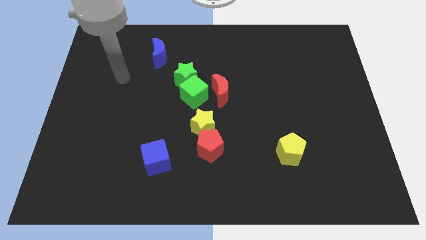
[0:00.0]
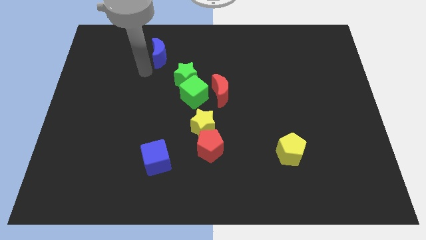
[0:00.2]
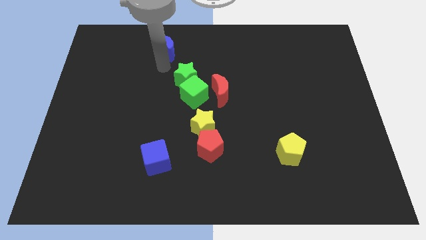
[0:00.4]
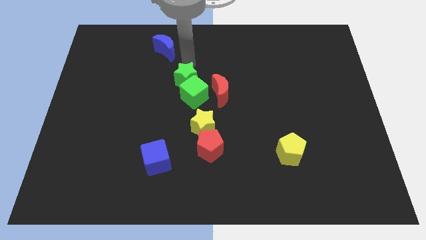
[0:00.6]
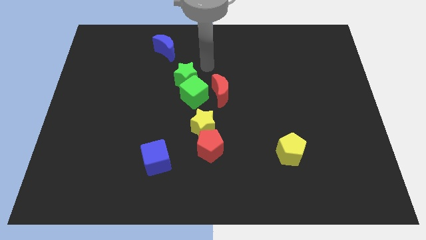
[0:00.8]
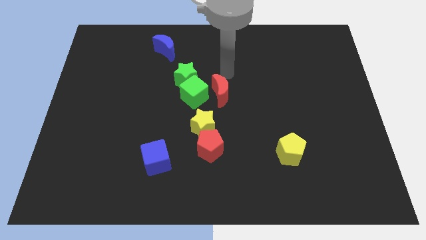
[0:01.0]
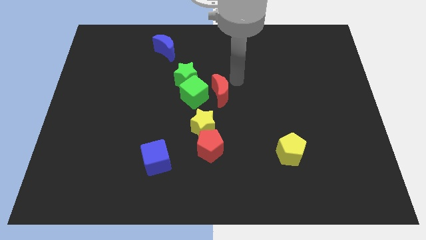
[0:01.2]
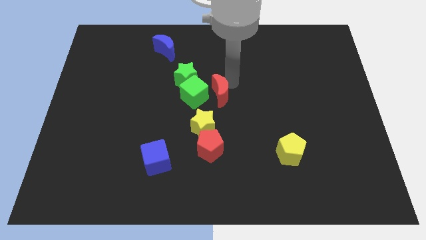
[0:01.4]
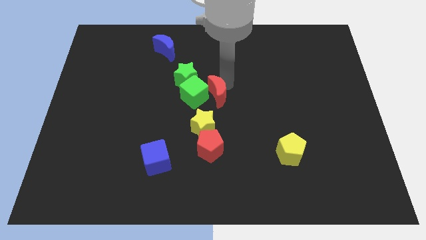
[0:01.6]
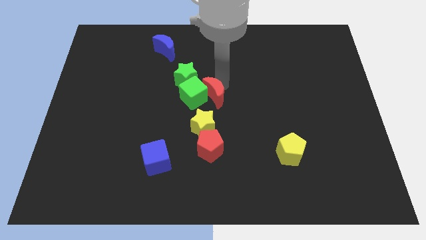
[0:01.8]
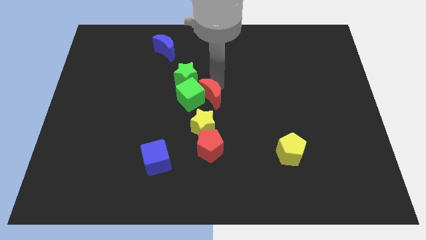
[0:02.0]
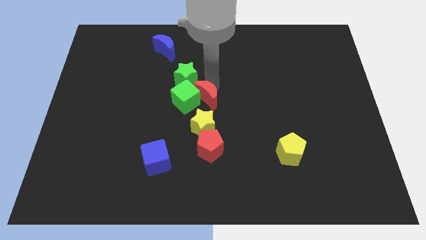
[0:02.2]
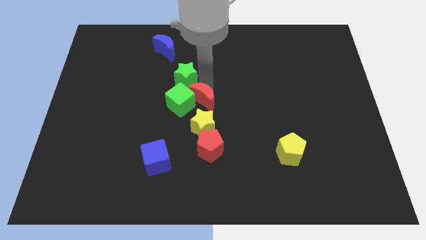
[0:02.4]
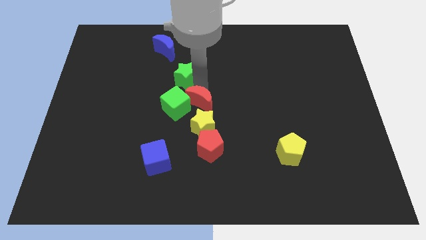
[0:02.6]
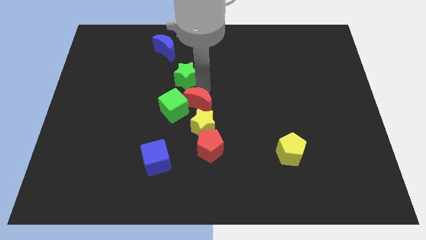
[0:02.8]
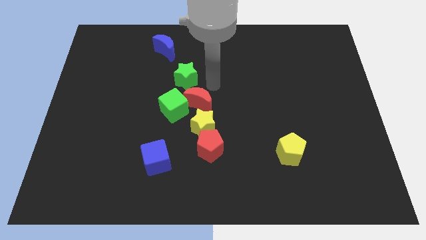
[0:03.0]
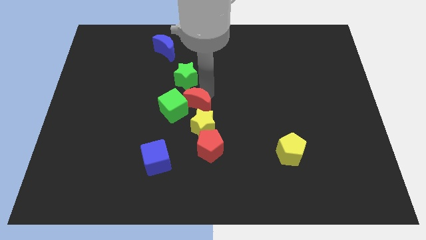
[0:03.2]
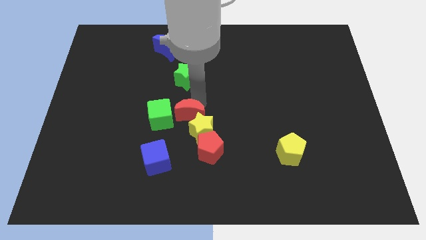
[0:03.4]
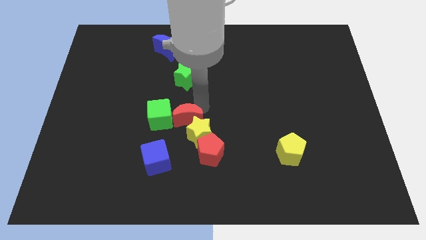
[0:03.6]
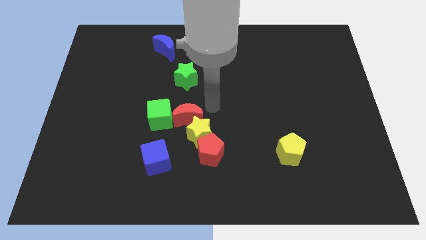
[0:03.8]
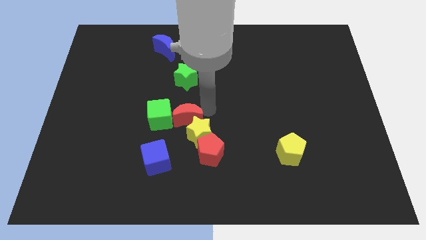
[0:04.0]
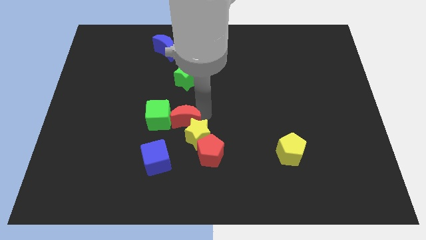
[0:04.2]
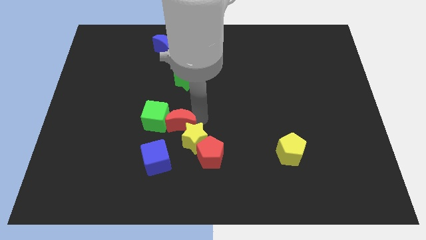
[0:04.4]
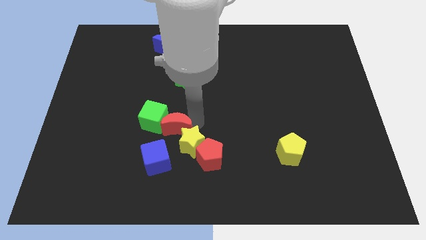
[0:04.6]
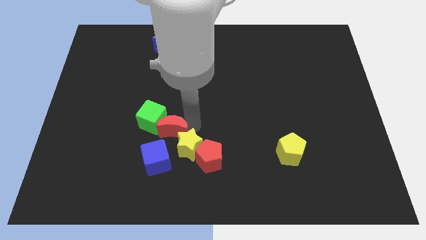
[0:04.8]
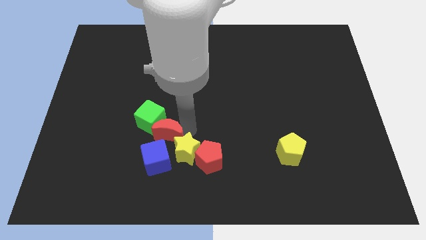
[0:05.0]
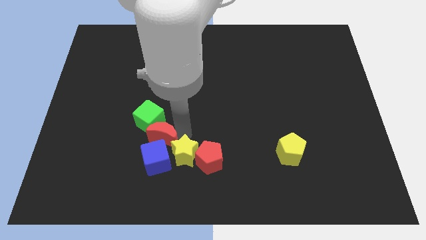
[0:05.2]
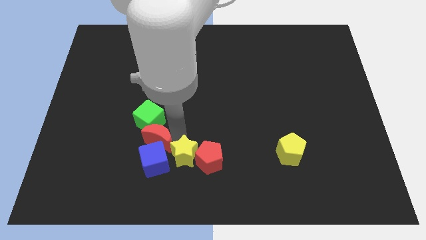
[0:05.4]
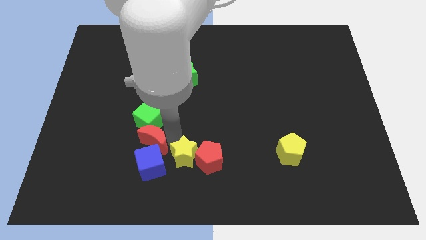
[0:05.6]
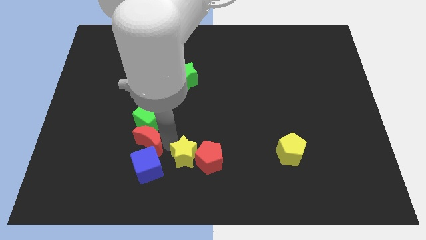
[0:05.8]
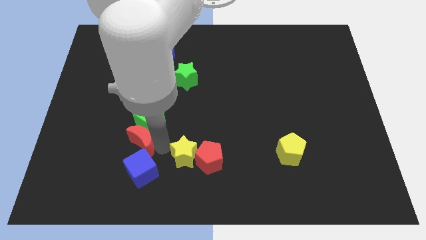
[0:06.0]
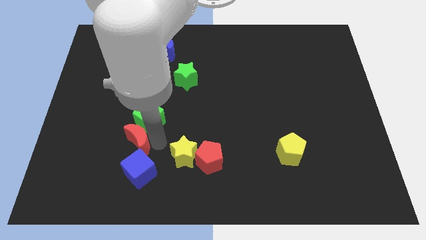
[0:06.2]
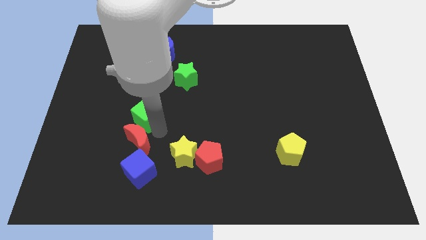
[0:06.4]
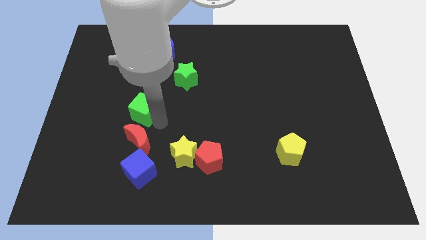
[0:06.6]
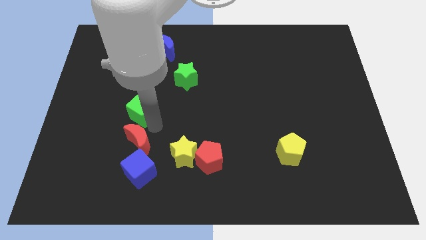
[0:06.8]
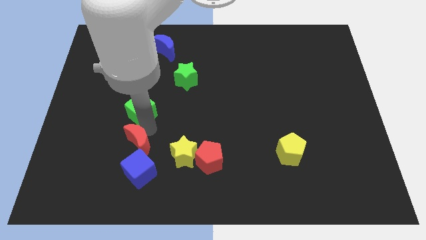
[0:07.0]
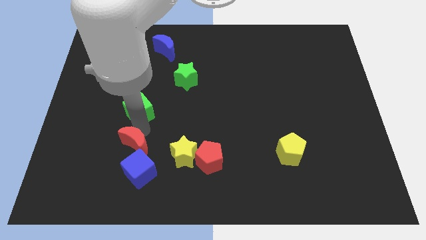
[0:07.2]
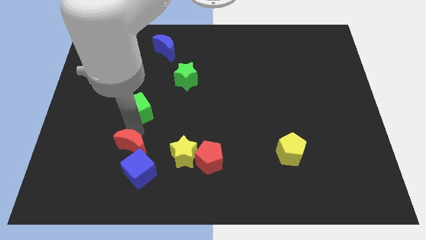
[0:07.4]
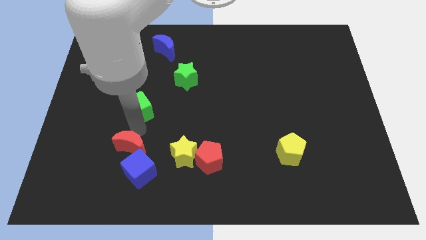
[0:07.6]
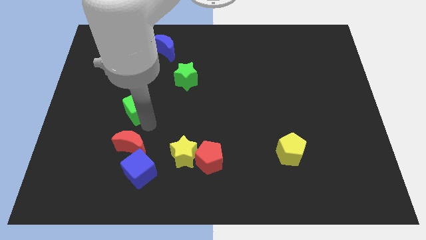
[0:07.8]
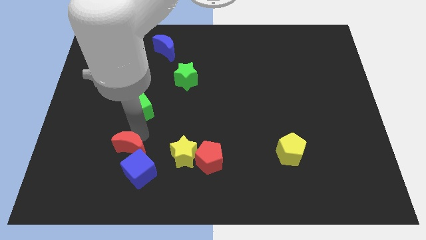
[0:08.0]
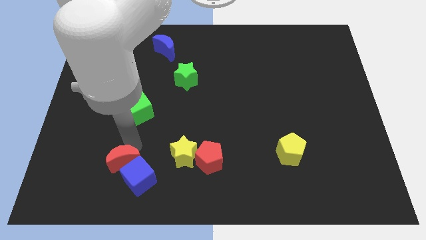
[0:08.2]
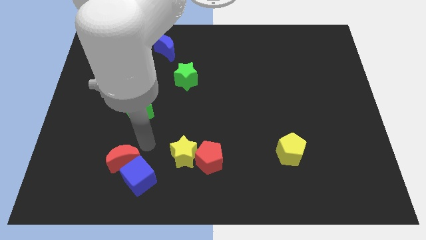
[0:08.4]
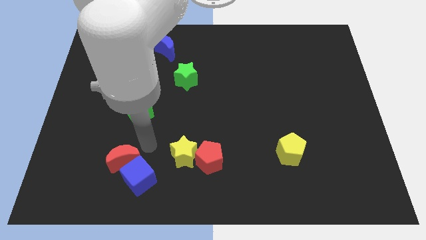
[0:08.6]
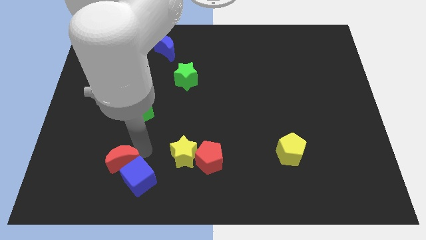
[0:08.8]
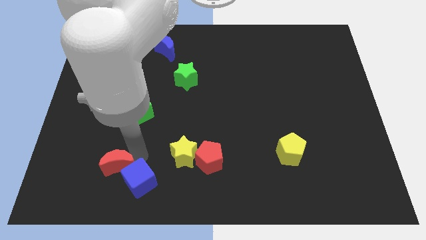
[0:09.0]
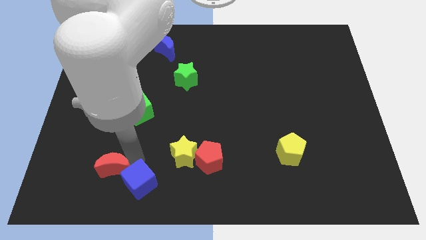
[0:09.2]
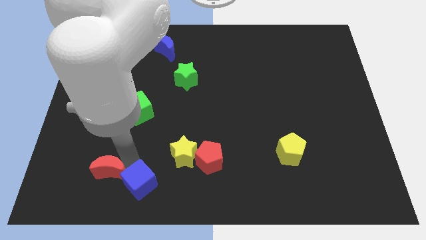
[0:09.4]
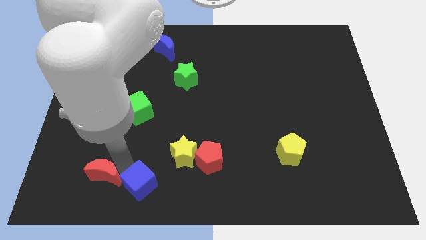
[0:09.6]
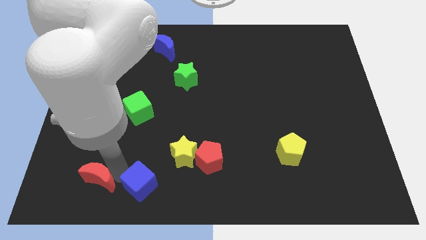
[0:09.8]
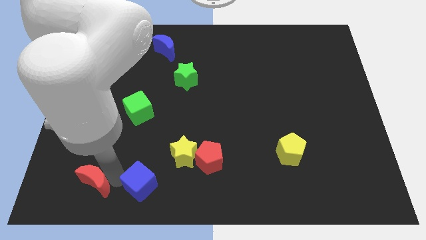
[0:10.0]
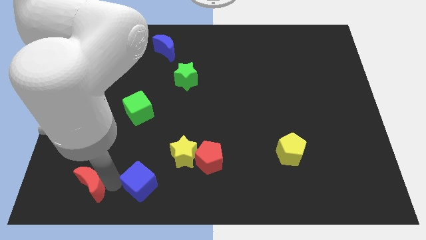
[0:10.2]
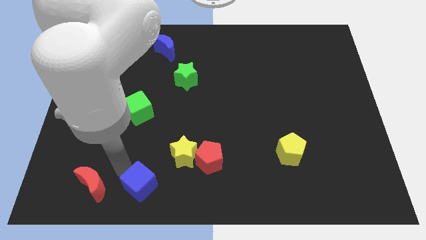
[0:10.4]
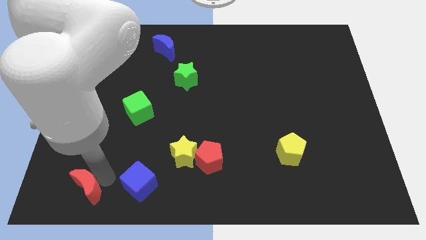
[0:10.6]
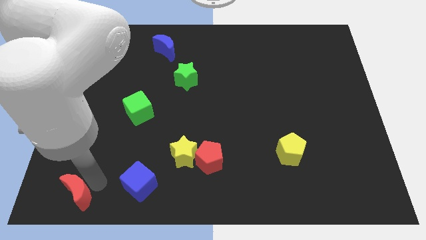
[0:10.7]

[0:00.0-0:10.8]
put the red moon to the bottom left
